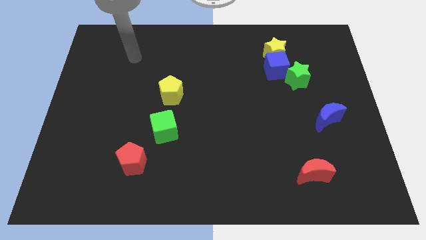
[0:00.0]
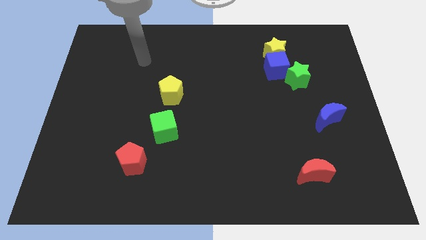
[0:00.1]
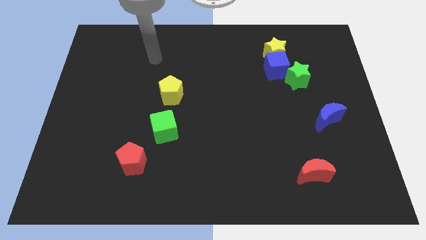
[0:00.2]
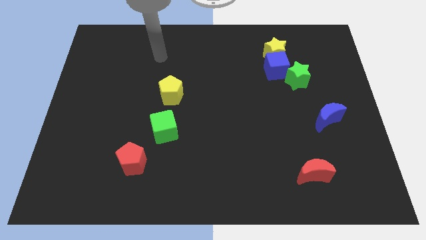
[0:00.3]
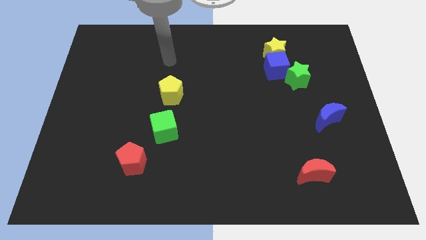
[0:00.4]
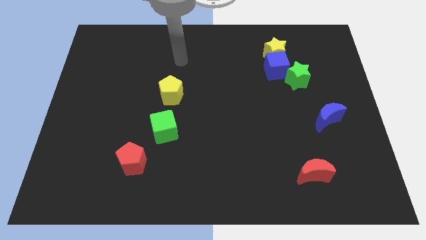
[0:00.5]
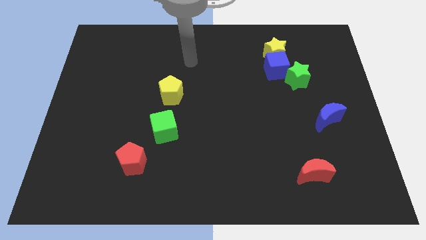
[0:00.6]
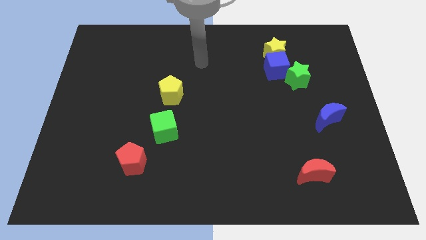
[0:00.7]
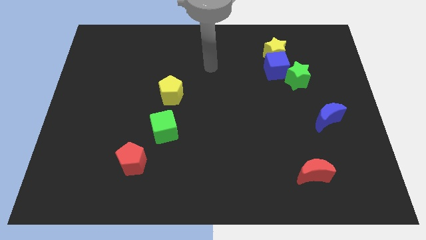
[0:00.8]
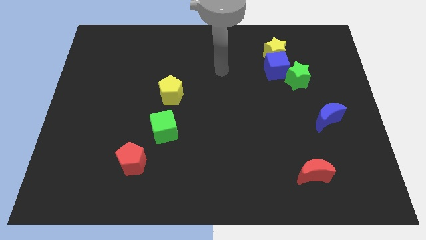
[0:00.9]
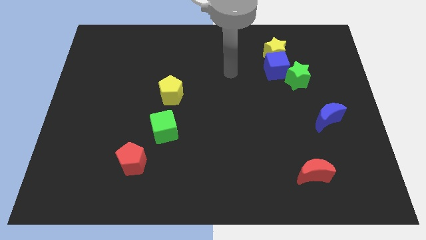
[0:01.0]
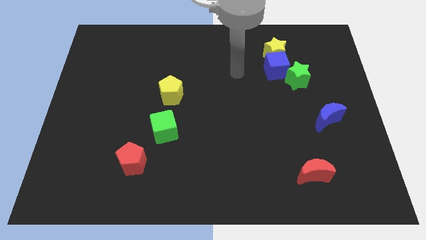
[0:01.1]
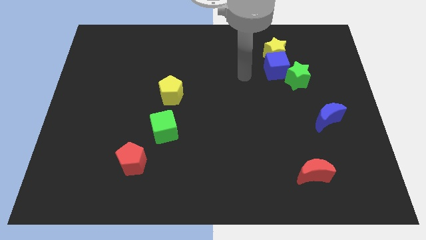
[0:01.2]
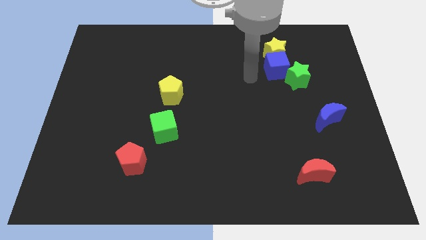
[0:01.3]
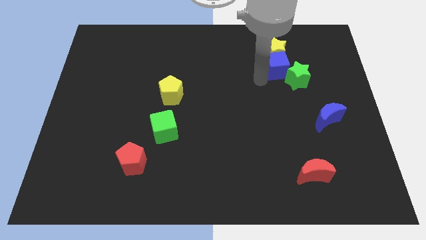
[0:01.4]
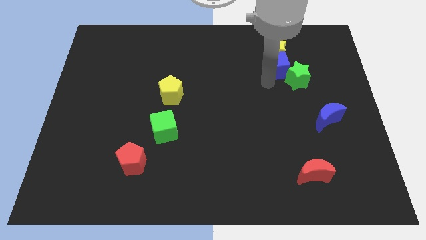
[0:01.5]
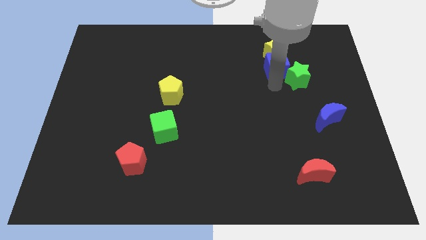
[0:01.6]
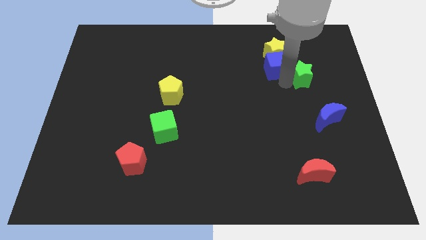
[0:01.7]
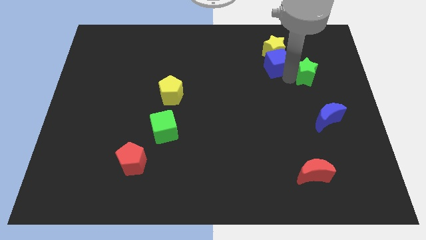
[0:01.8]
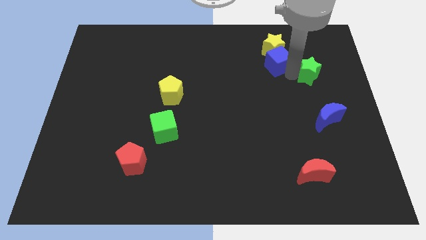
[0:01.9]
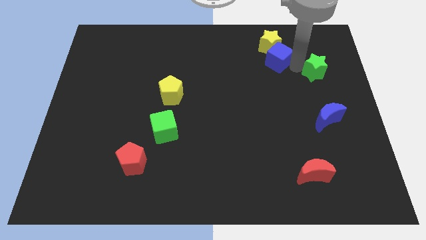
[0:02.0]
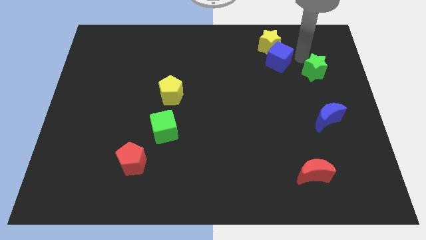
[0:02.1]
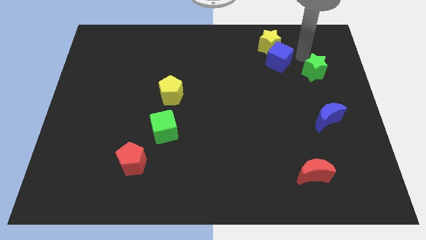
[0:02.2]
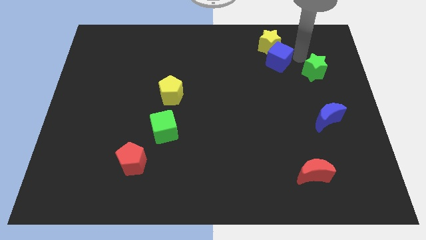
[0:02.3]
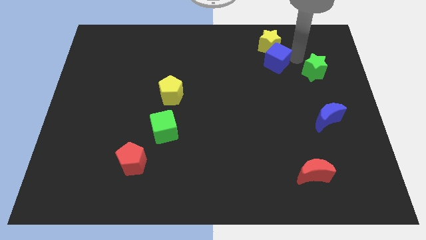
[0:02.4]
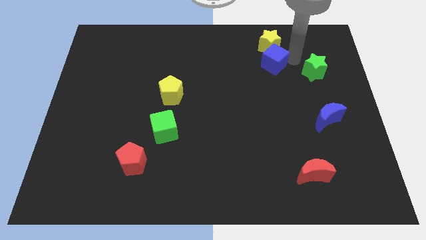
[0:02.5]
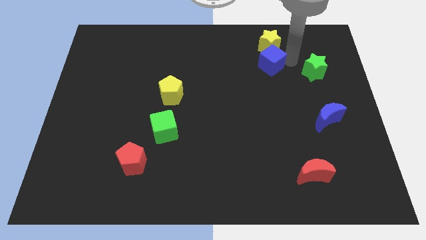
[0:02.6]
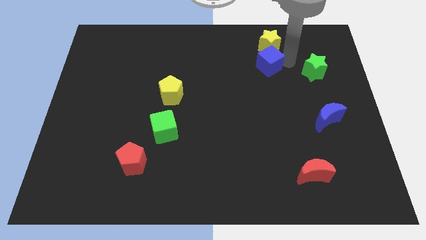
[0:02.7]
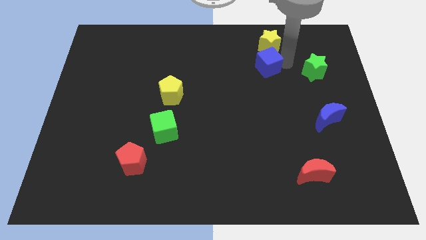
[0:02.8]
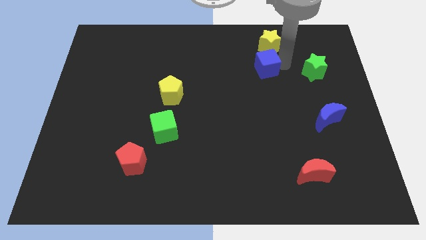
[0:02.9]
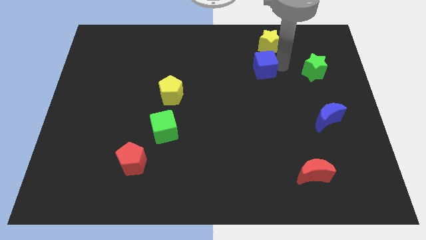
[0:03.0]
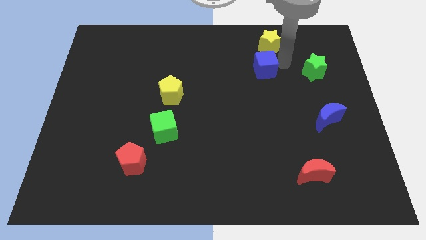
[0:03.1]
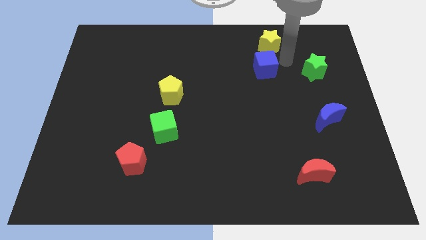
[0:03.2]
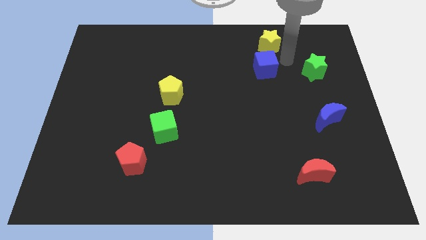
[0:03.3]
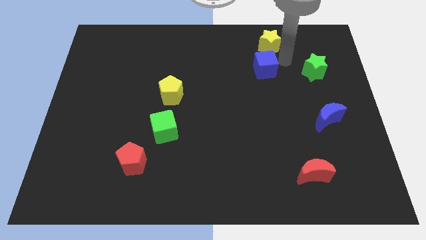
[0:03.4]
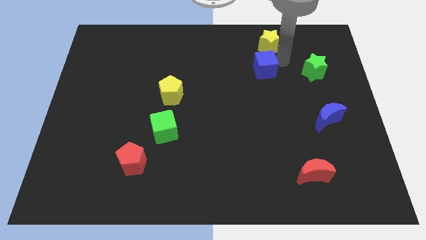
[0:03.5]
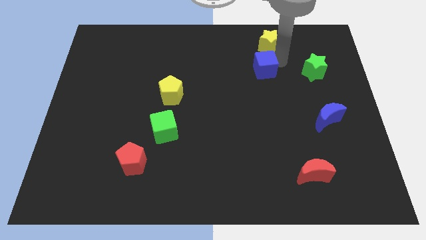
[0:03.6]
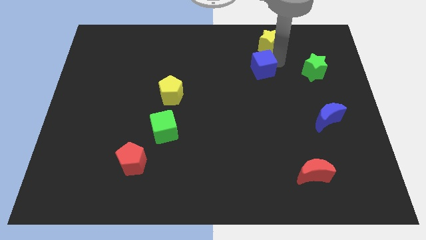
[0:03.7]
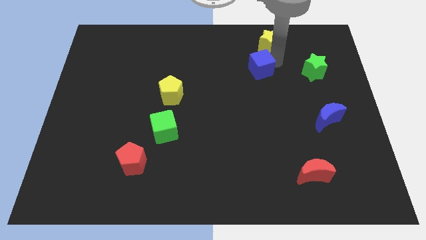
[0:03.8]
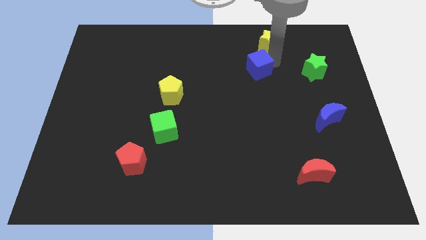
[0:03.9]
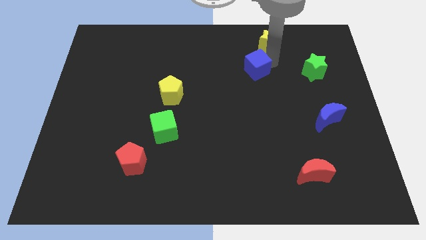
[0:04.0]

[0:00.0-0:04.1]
pull the blue cube apart from the yellow star and green star

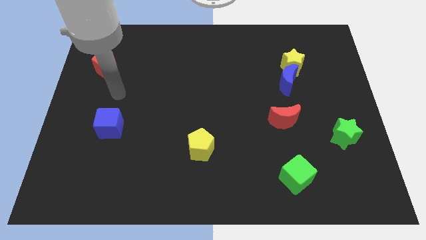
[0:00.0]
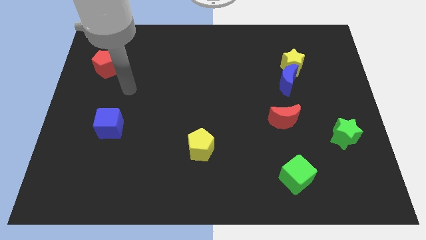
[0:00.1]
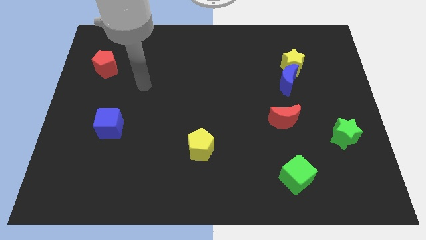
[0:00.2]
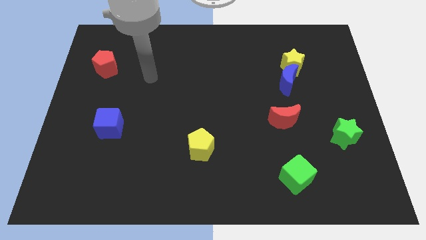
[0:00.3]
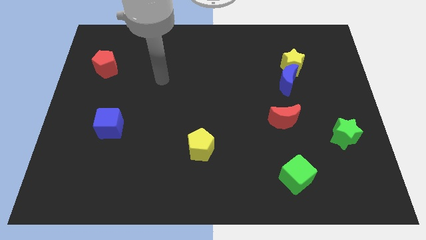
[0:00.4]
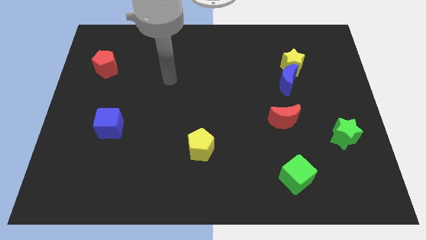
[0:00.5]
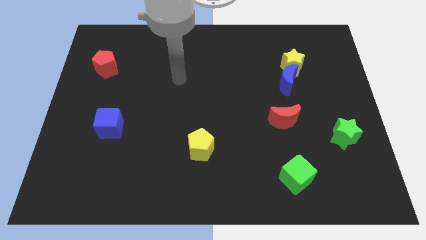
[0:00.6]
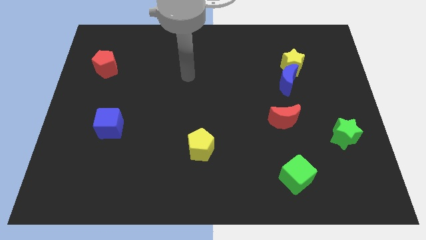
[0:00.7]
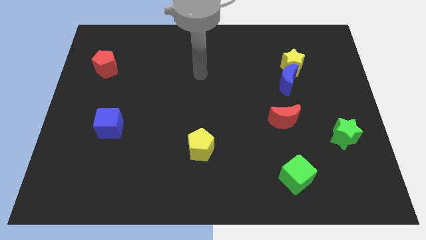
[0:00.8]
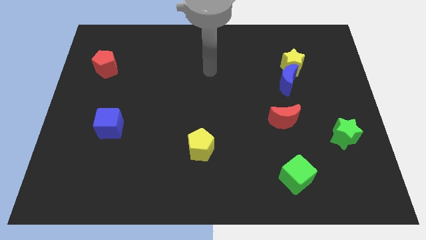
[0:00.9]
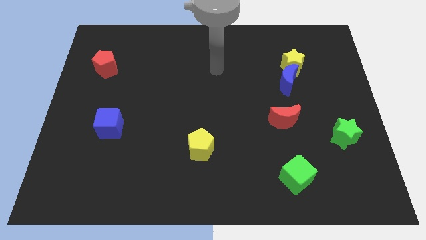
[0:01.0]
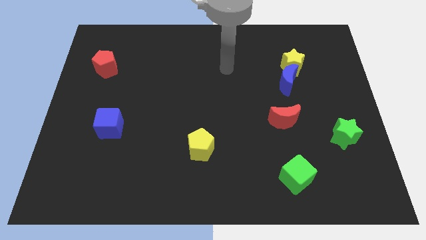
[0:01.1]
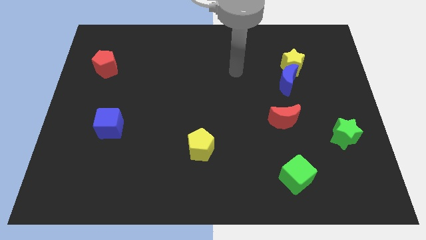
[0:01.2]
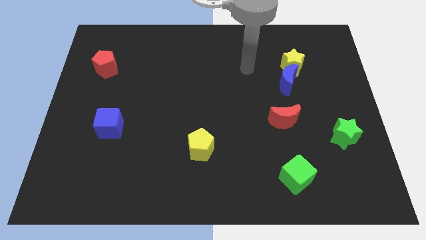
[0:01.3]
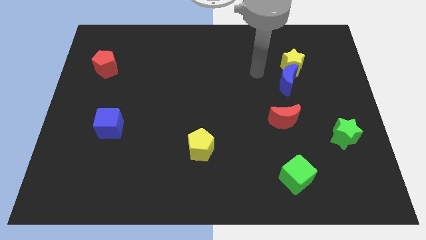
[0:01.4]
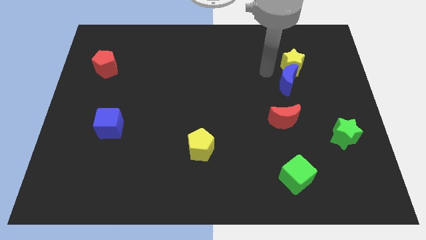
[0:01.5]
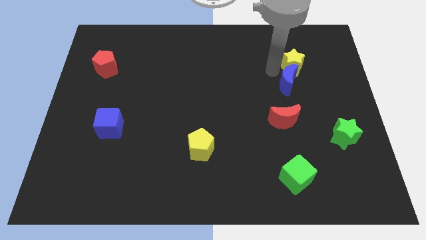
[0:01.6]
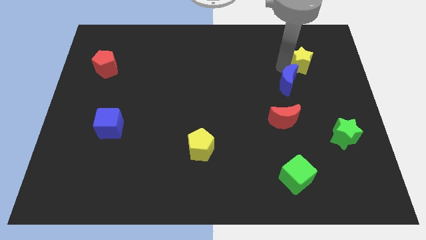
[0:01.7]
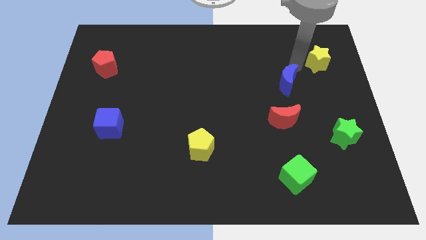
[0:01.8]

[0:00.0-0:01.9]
move the blue moon away from the yellow star

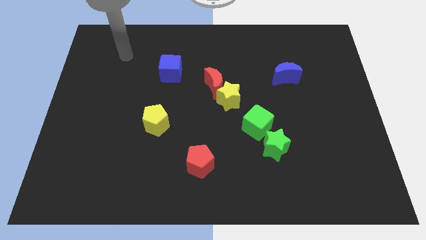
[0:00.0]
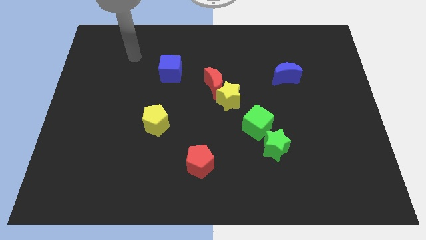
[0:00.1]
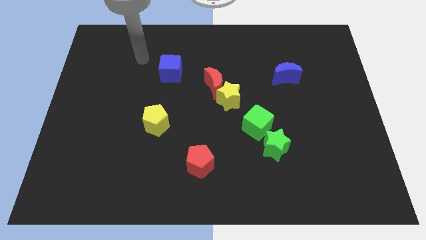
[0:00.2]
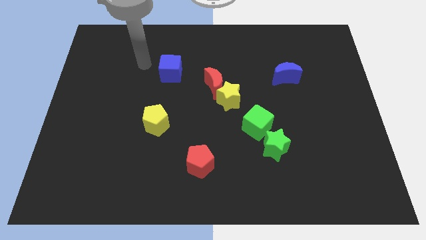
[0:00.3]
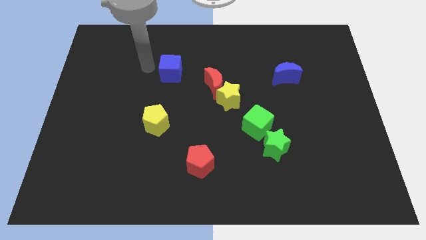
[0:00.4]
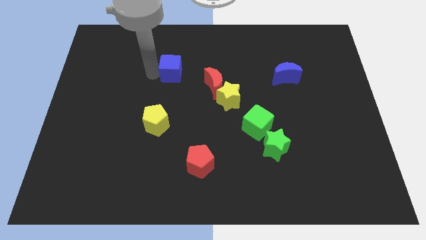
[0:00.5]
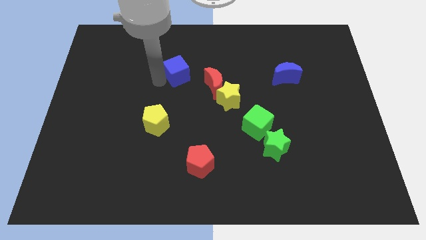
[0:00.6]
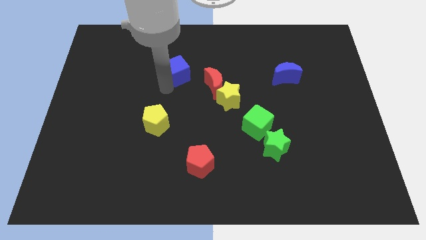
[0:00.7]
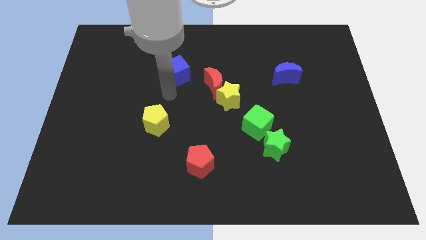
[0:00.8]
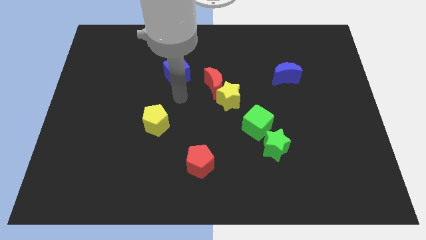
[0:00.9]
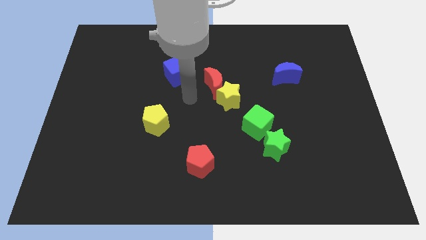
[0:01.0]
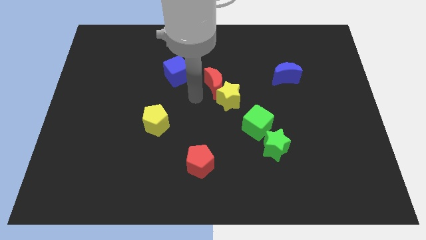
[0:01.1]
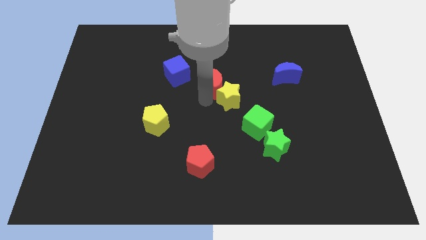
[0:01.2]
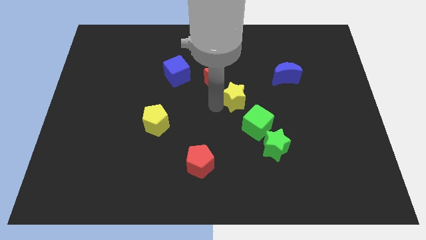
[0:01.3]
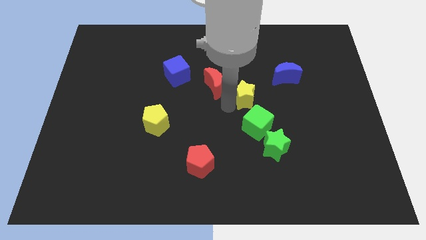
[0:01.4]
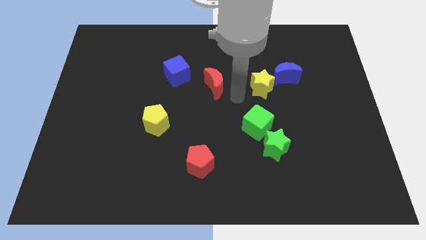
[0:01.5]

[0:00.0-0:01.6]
pull the red moon apart from the yellow star

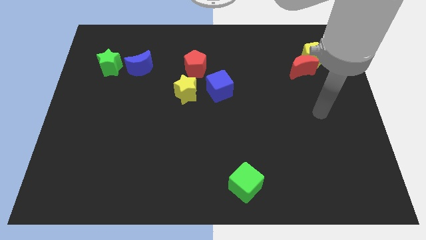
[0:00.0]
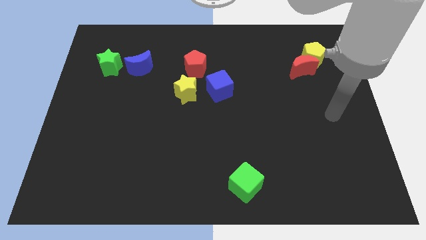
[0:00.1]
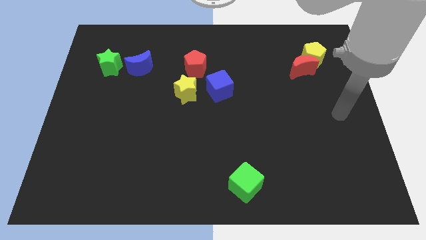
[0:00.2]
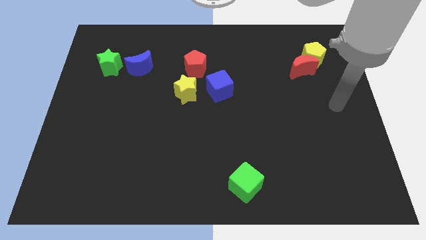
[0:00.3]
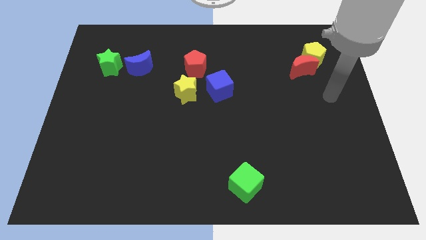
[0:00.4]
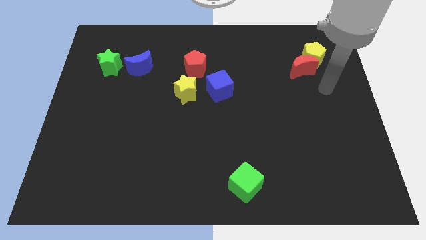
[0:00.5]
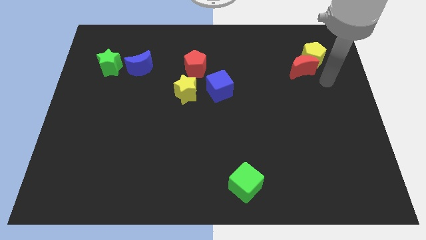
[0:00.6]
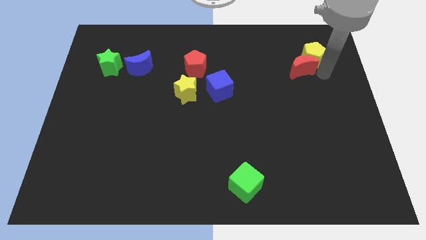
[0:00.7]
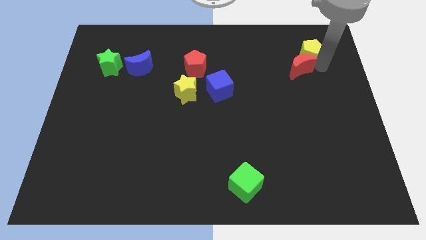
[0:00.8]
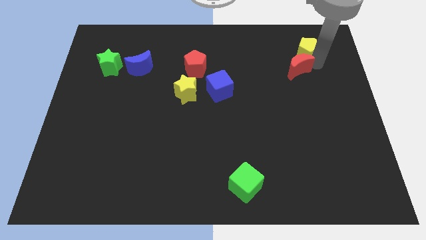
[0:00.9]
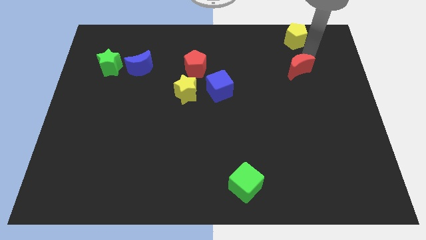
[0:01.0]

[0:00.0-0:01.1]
move the red moon away from the yellow pentagon

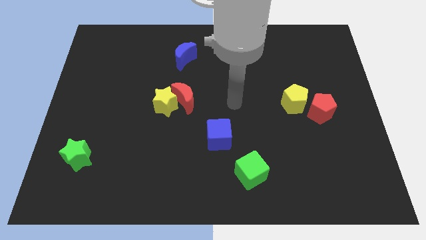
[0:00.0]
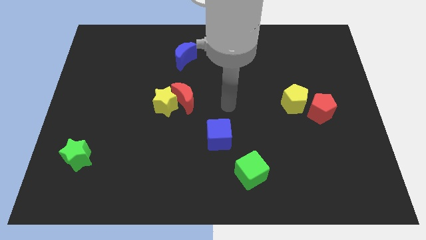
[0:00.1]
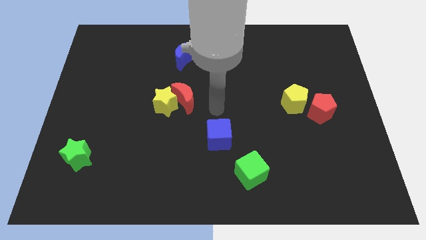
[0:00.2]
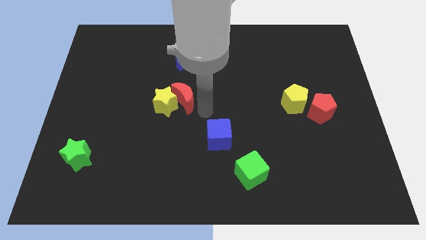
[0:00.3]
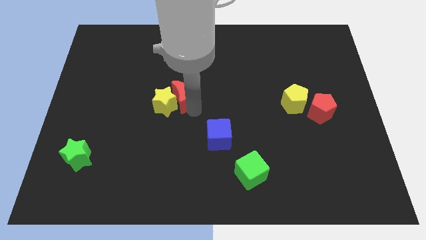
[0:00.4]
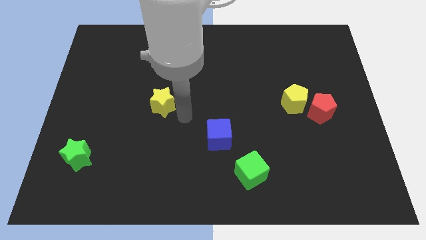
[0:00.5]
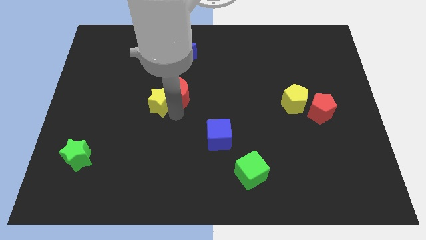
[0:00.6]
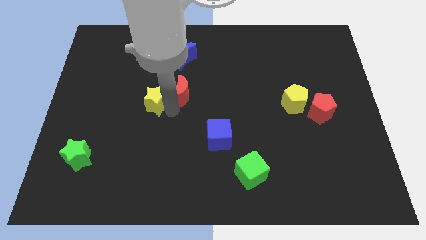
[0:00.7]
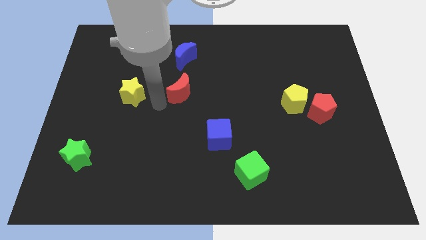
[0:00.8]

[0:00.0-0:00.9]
separate the red moon from the yellow star
